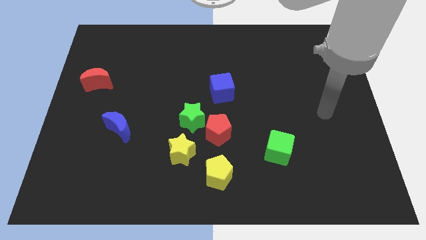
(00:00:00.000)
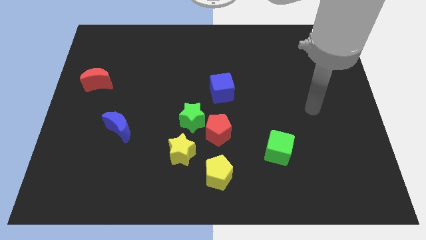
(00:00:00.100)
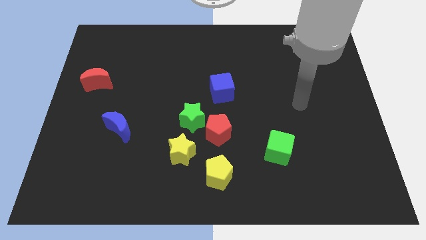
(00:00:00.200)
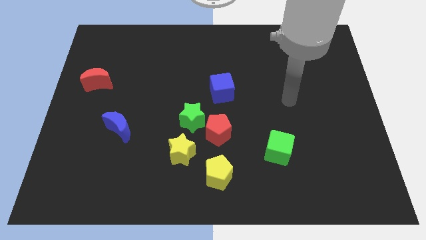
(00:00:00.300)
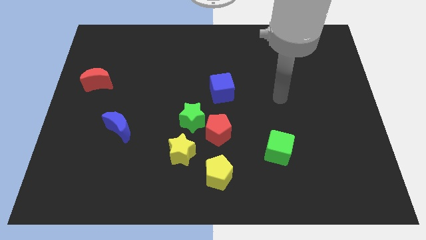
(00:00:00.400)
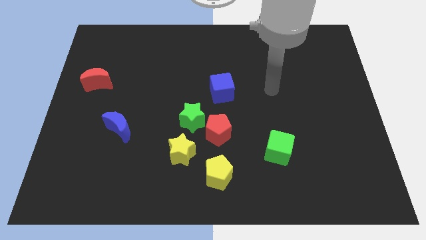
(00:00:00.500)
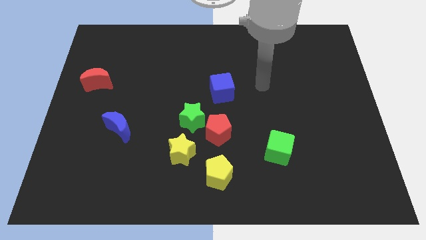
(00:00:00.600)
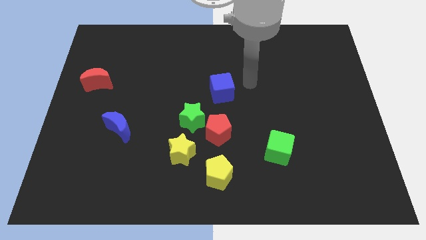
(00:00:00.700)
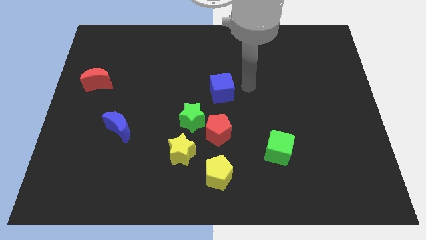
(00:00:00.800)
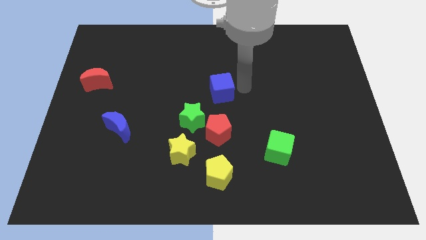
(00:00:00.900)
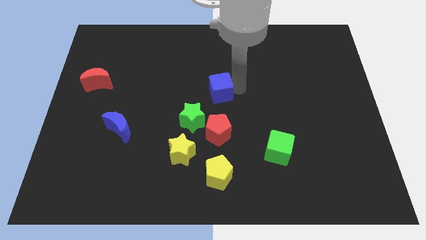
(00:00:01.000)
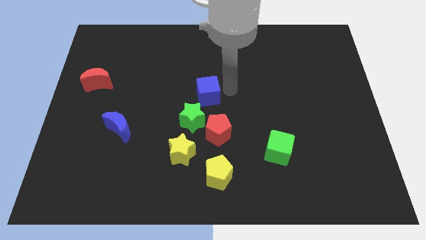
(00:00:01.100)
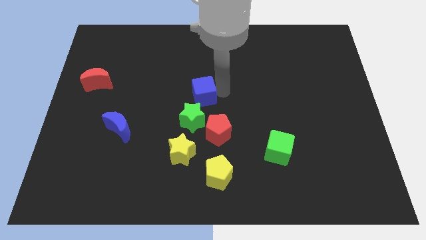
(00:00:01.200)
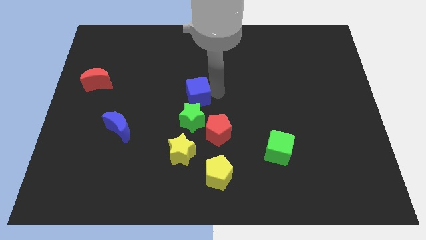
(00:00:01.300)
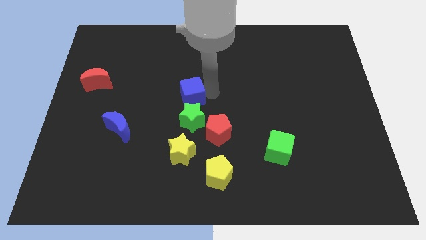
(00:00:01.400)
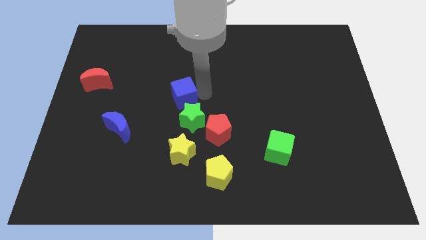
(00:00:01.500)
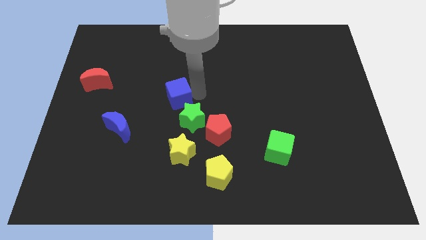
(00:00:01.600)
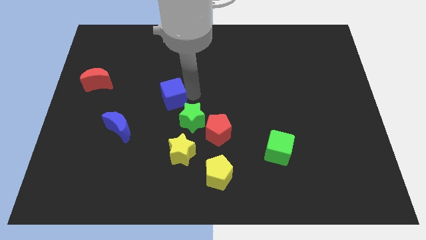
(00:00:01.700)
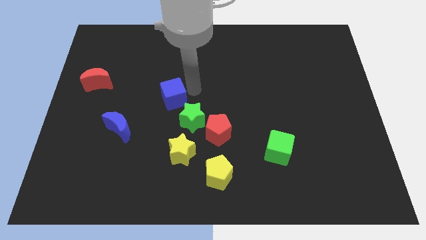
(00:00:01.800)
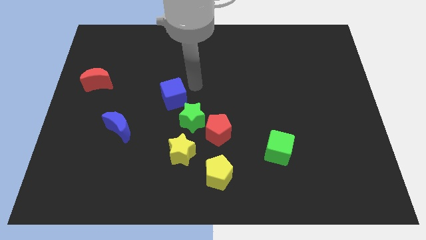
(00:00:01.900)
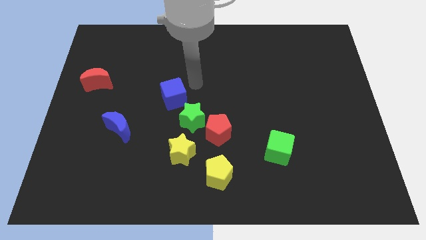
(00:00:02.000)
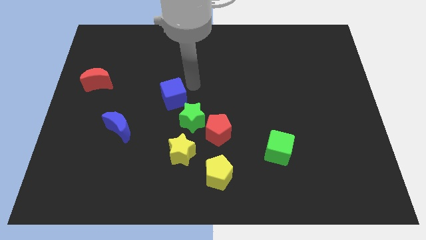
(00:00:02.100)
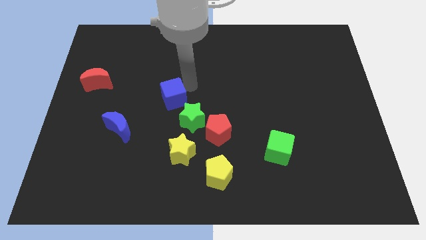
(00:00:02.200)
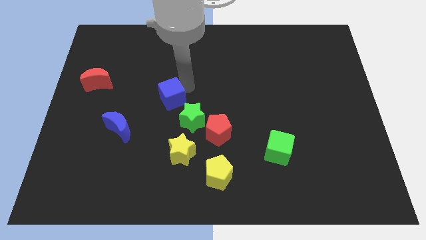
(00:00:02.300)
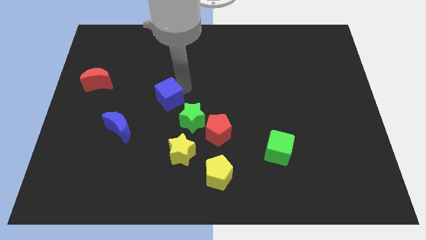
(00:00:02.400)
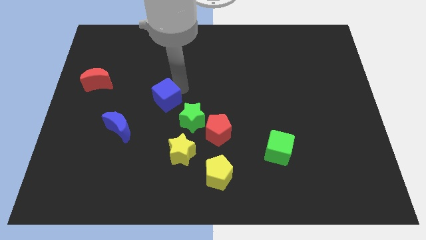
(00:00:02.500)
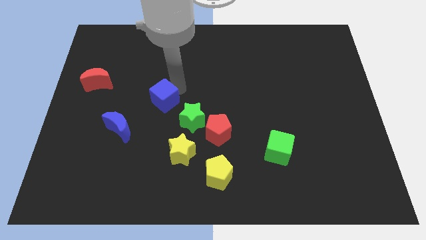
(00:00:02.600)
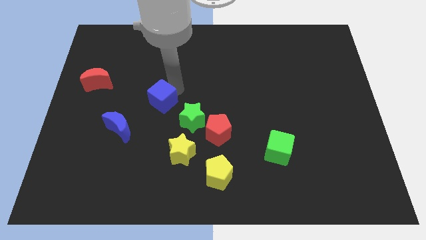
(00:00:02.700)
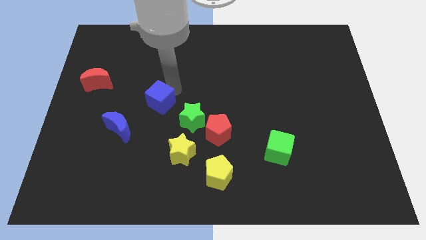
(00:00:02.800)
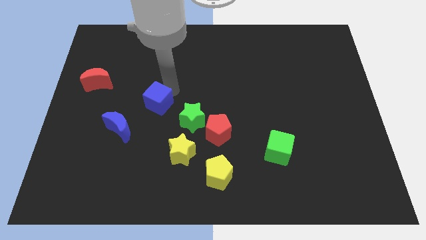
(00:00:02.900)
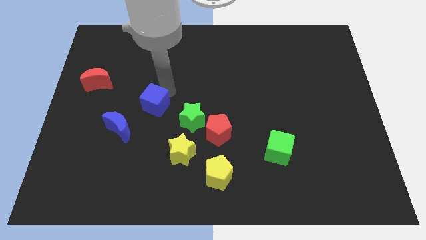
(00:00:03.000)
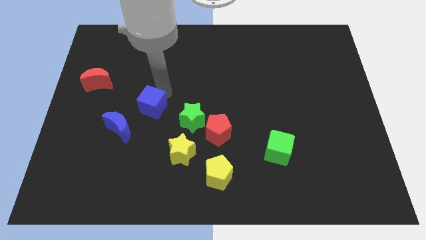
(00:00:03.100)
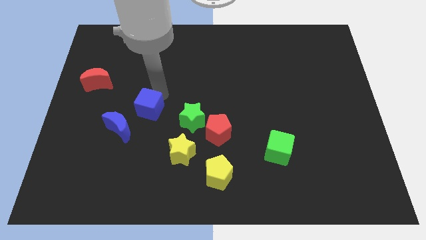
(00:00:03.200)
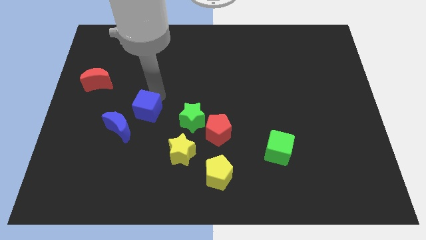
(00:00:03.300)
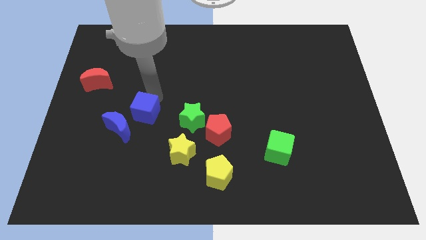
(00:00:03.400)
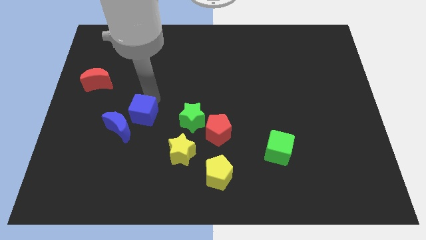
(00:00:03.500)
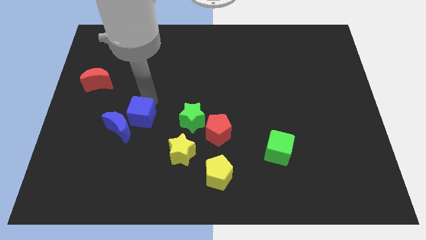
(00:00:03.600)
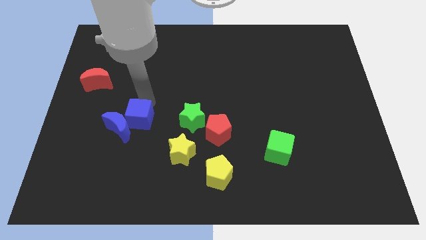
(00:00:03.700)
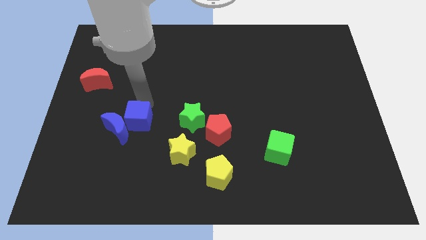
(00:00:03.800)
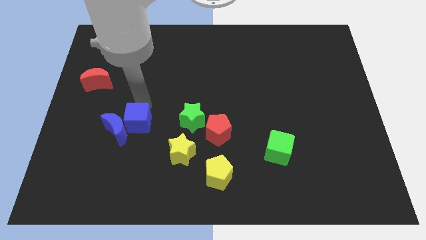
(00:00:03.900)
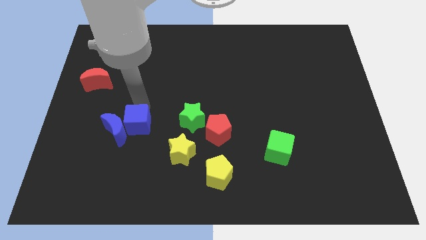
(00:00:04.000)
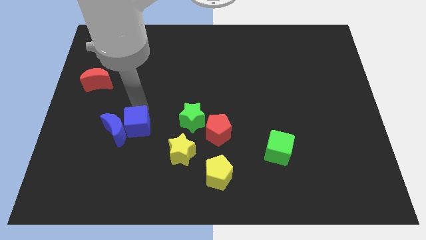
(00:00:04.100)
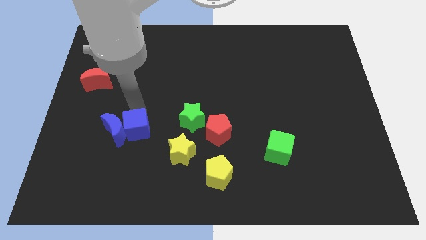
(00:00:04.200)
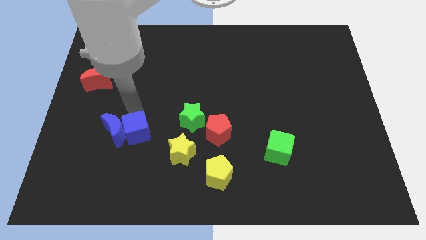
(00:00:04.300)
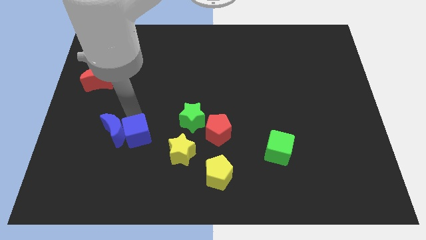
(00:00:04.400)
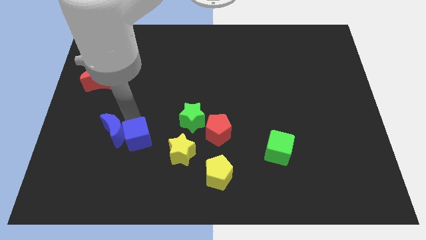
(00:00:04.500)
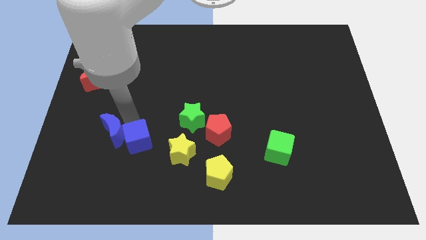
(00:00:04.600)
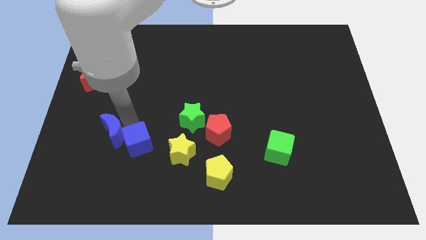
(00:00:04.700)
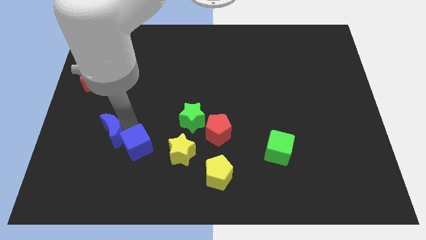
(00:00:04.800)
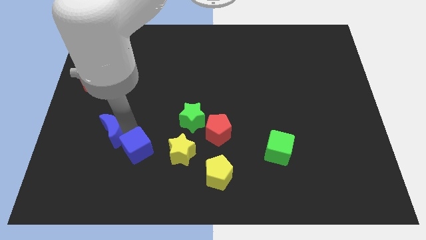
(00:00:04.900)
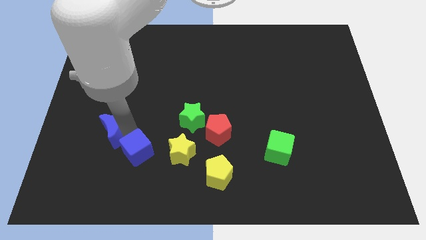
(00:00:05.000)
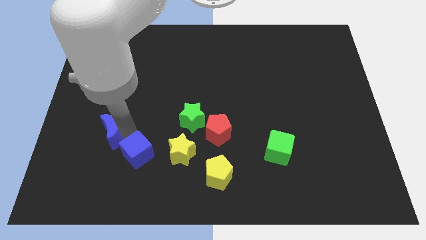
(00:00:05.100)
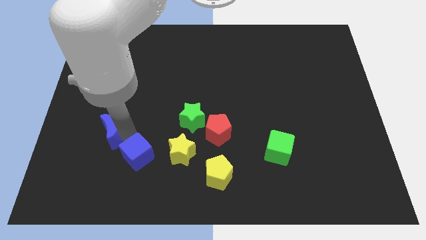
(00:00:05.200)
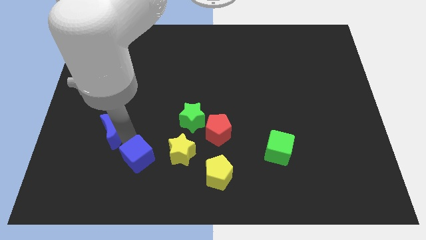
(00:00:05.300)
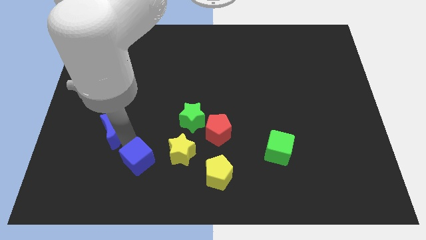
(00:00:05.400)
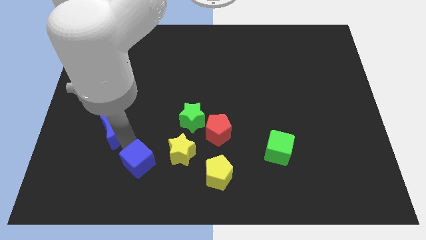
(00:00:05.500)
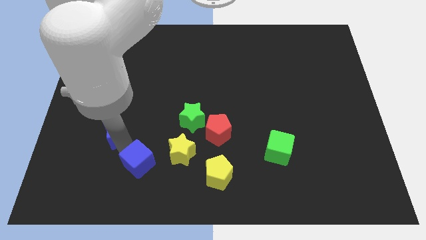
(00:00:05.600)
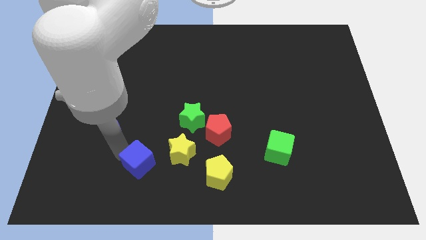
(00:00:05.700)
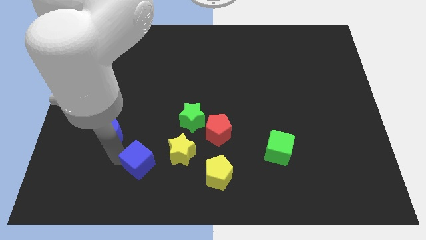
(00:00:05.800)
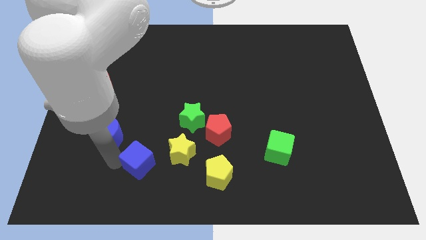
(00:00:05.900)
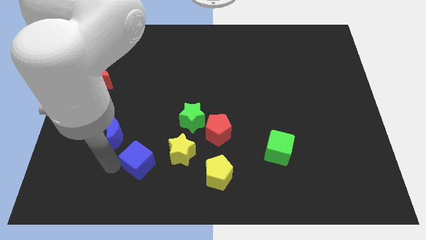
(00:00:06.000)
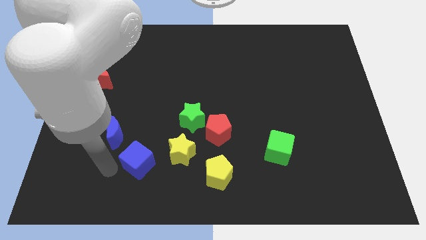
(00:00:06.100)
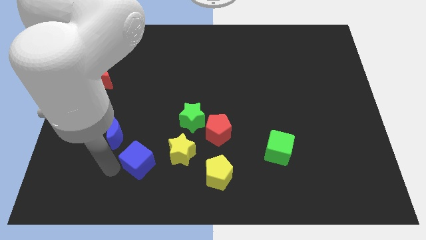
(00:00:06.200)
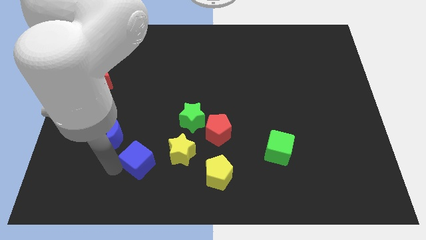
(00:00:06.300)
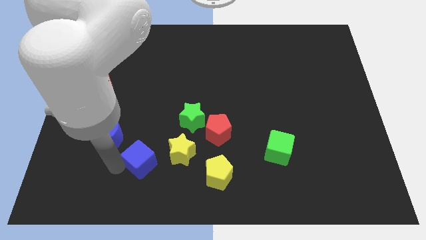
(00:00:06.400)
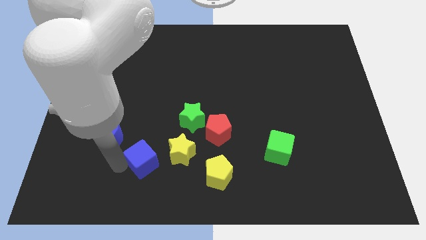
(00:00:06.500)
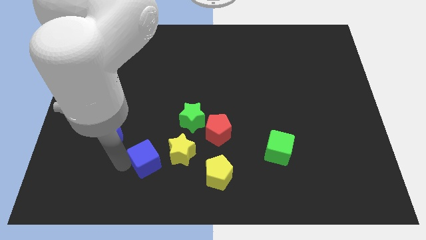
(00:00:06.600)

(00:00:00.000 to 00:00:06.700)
put the blue cube to the left of the yellow pentagon

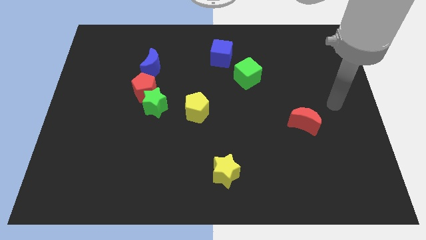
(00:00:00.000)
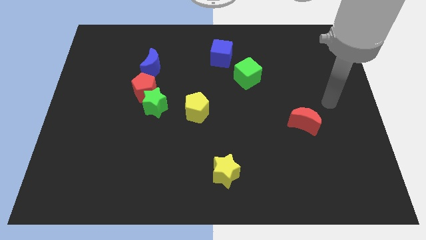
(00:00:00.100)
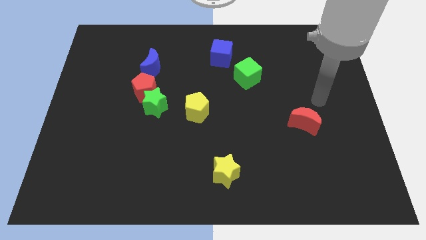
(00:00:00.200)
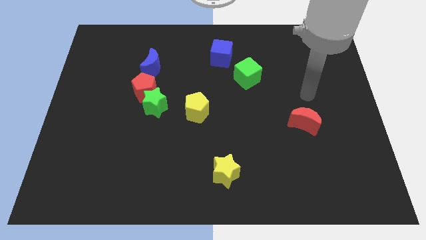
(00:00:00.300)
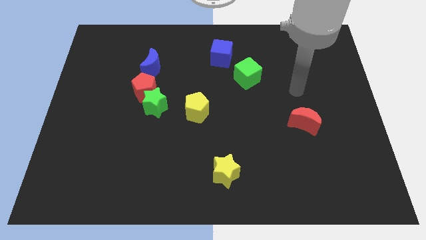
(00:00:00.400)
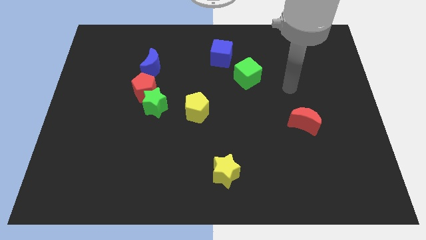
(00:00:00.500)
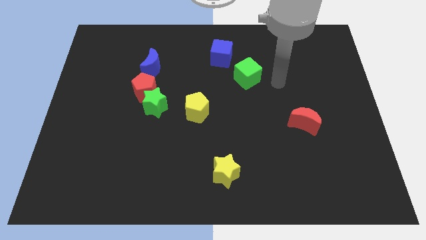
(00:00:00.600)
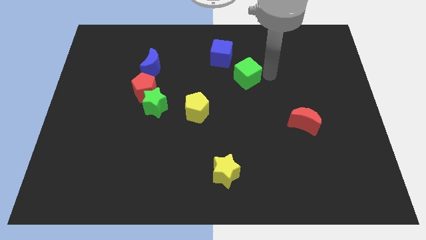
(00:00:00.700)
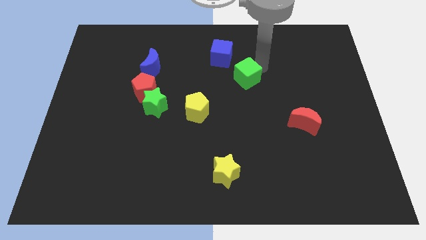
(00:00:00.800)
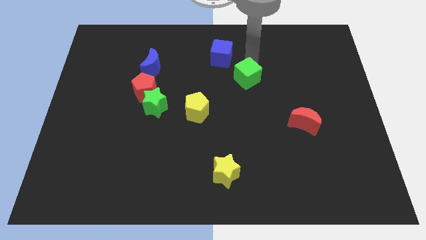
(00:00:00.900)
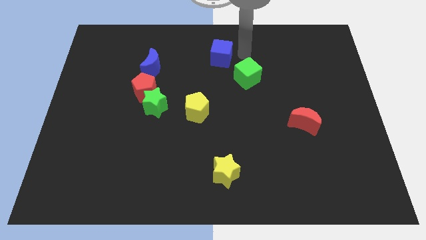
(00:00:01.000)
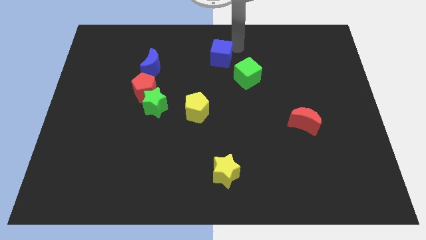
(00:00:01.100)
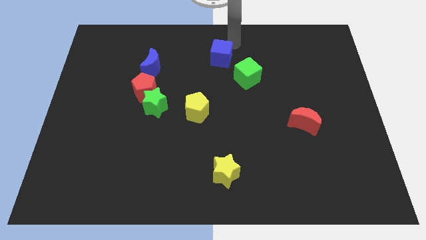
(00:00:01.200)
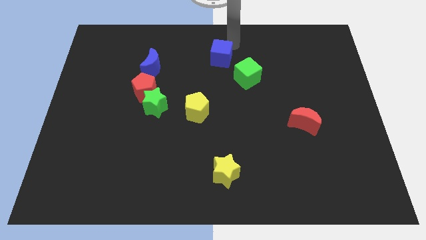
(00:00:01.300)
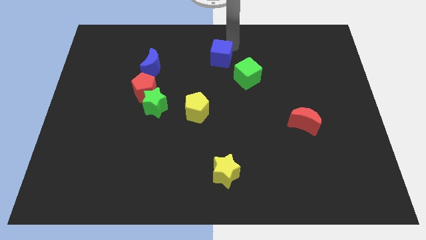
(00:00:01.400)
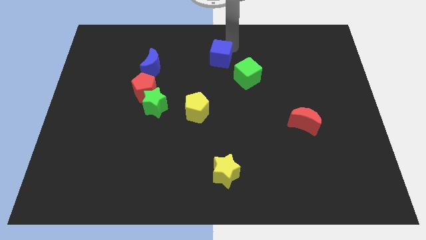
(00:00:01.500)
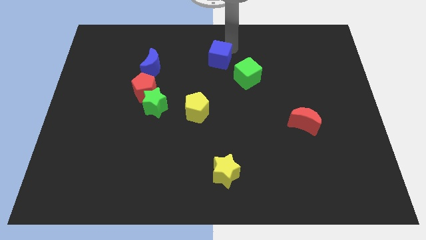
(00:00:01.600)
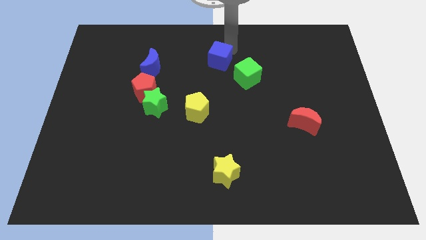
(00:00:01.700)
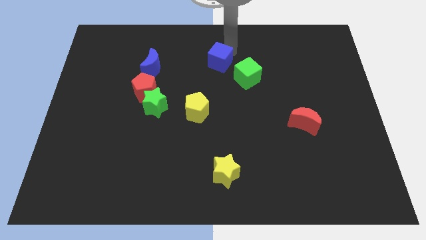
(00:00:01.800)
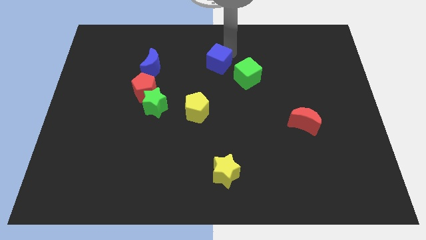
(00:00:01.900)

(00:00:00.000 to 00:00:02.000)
push the blue cube left of the green cube
